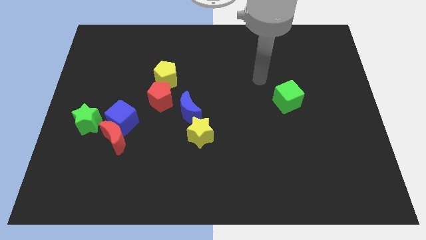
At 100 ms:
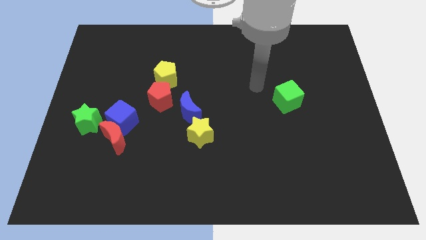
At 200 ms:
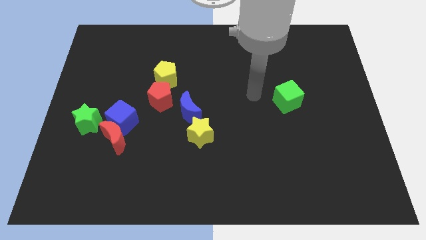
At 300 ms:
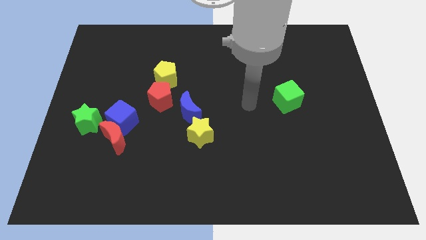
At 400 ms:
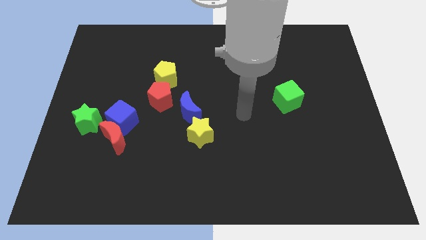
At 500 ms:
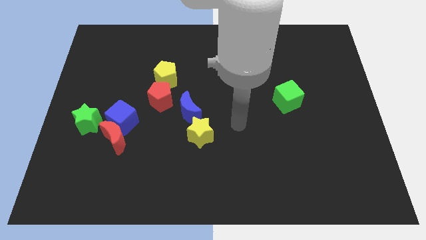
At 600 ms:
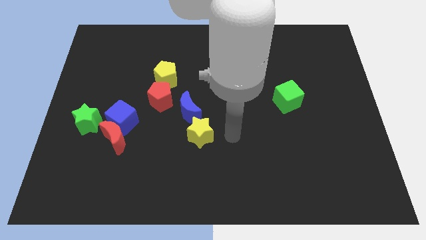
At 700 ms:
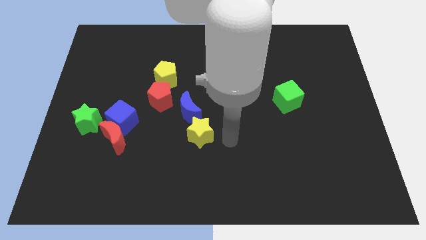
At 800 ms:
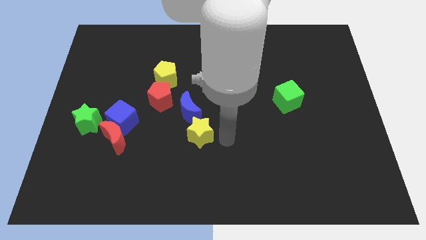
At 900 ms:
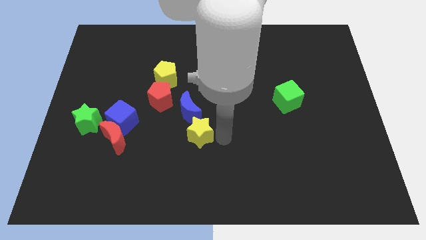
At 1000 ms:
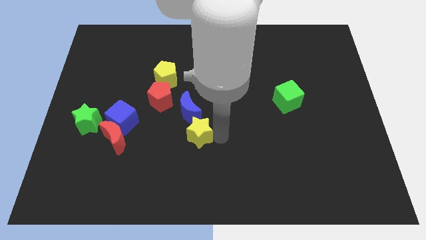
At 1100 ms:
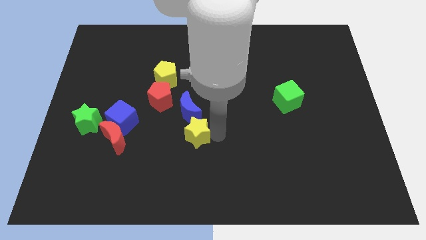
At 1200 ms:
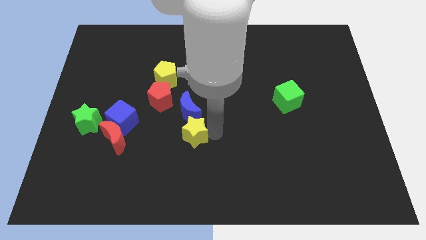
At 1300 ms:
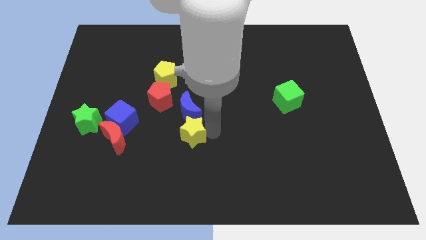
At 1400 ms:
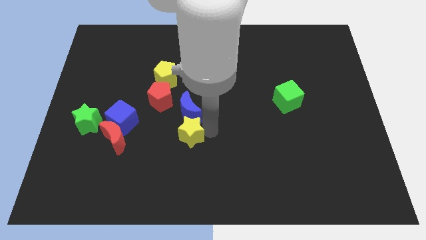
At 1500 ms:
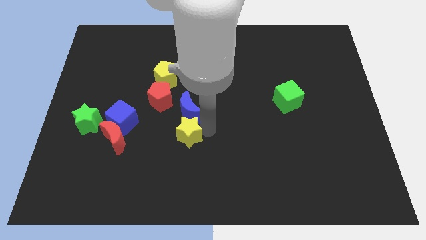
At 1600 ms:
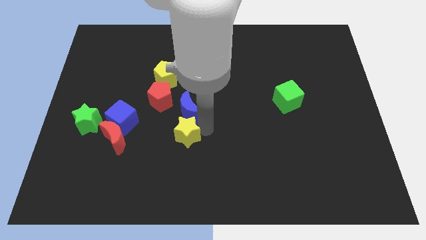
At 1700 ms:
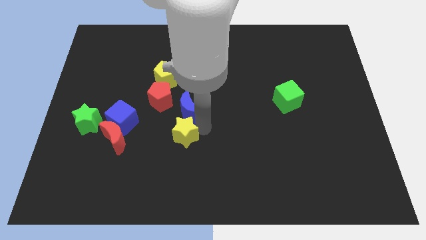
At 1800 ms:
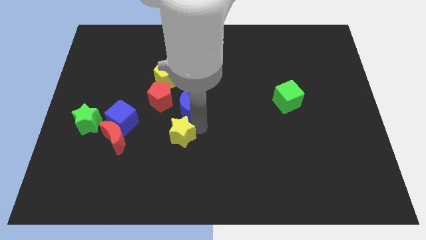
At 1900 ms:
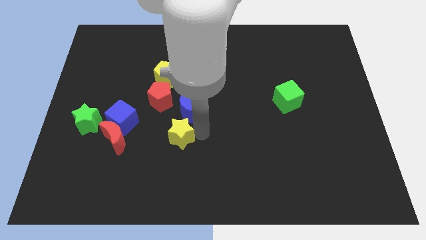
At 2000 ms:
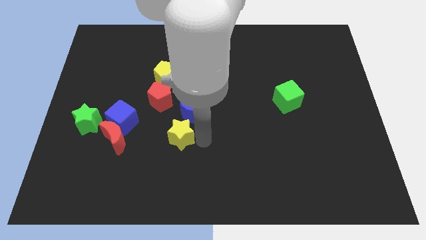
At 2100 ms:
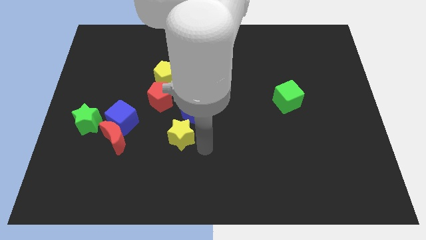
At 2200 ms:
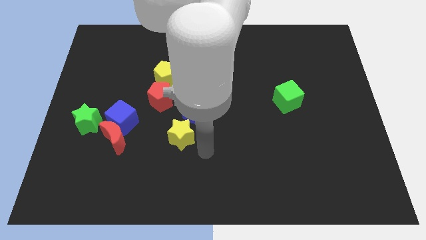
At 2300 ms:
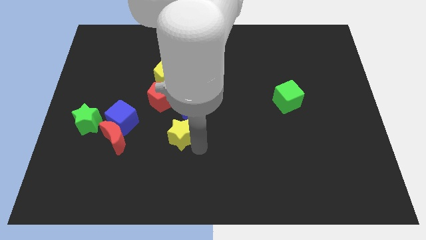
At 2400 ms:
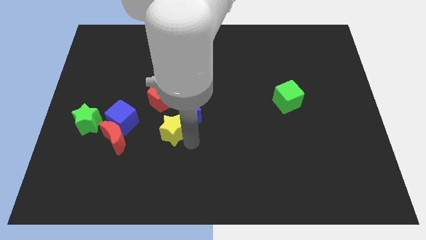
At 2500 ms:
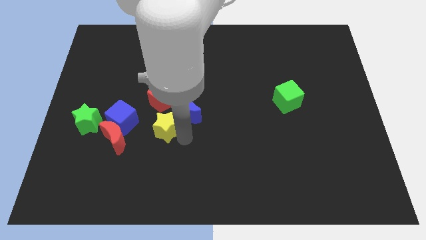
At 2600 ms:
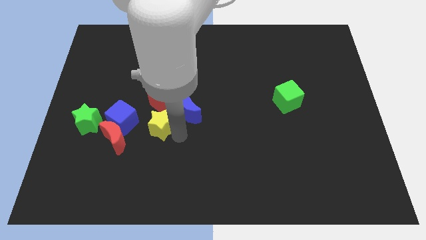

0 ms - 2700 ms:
slide the yellow star upwards and left a little bit

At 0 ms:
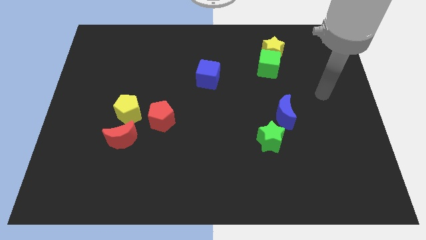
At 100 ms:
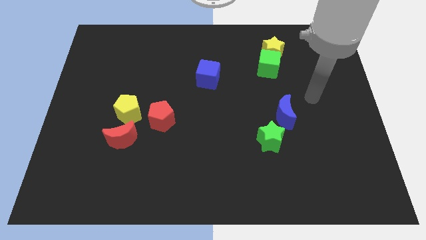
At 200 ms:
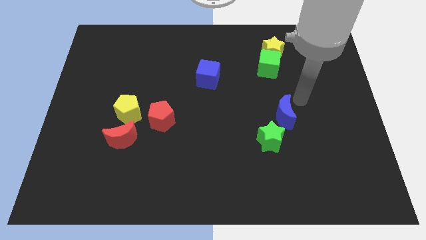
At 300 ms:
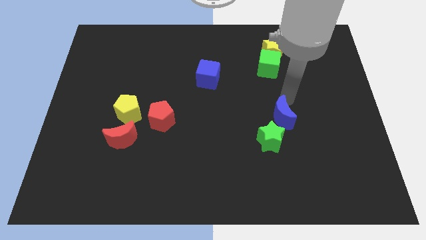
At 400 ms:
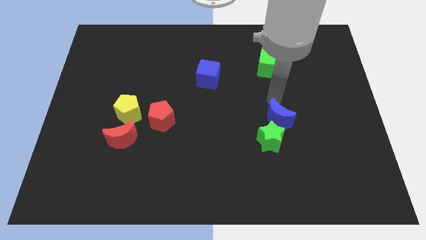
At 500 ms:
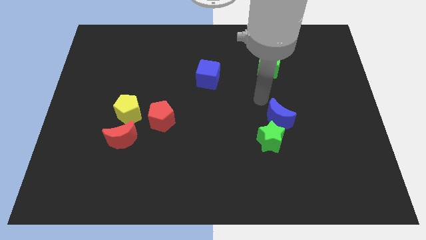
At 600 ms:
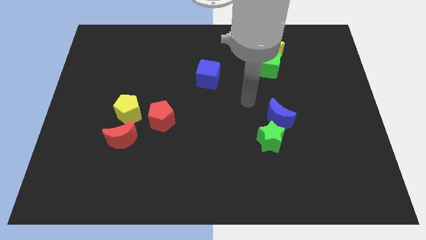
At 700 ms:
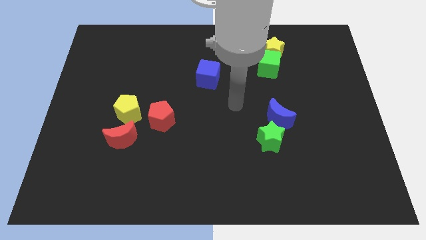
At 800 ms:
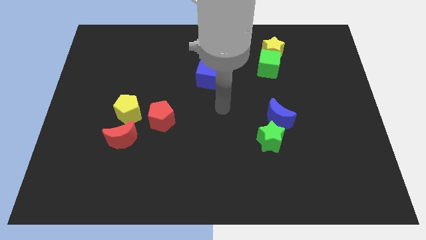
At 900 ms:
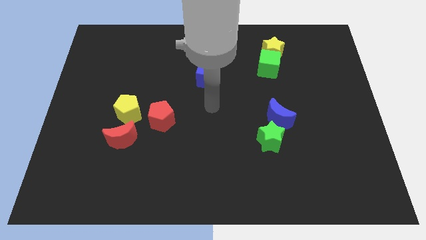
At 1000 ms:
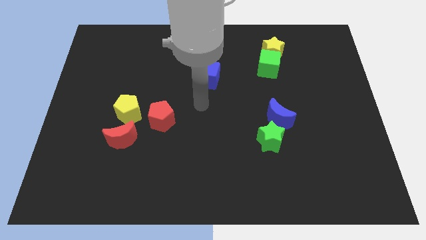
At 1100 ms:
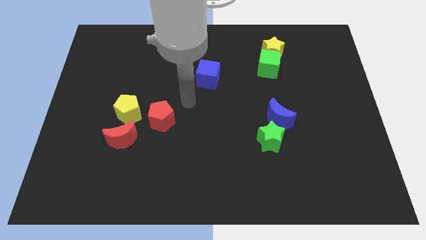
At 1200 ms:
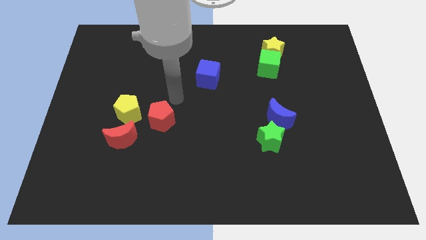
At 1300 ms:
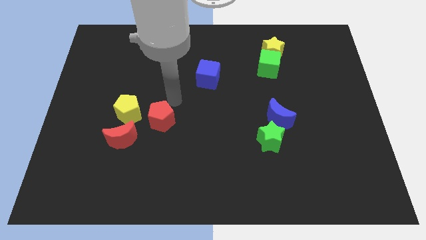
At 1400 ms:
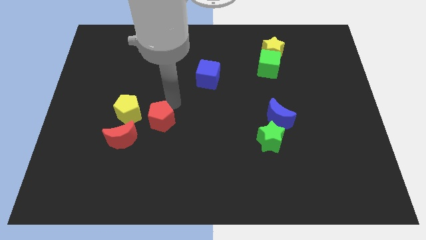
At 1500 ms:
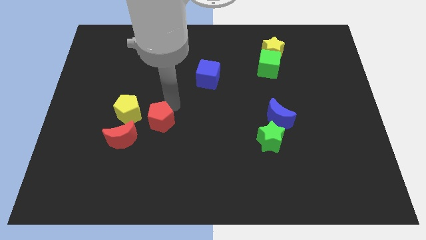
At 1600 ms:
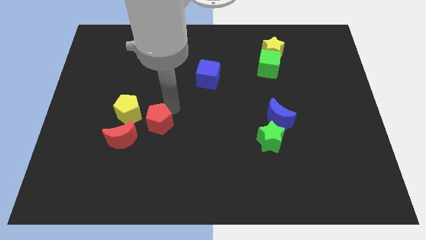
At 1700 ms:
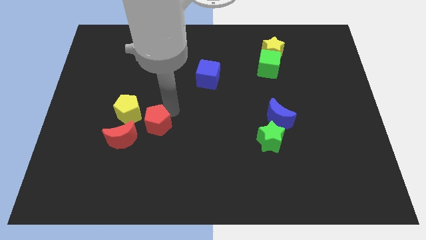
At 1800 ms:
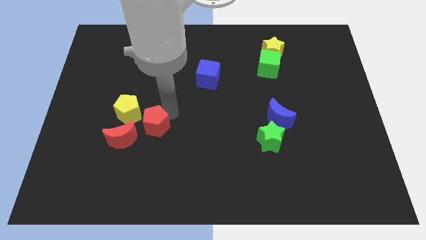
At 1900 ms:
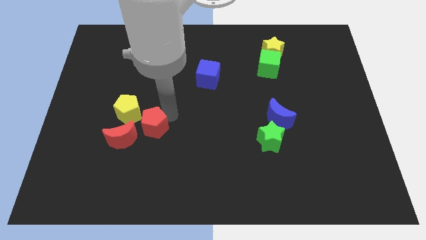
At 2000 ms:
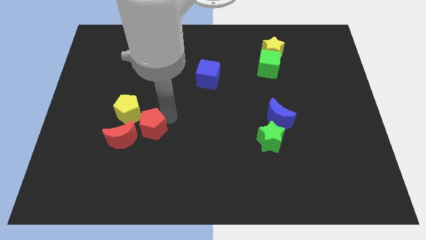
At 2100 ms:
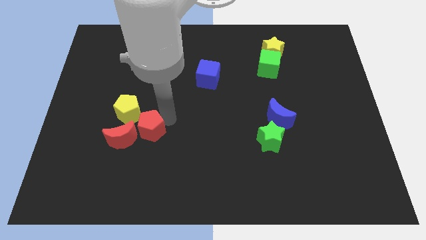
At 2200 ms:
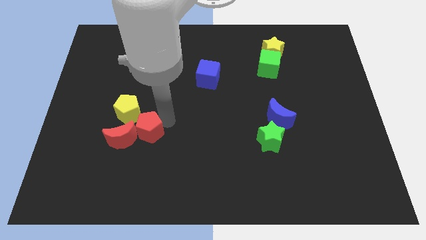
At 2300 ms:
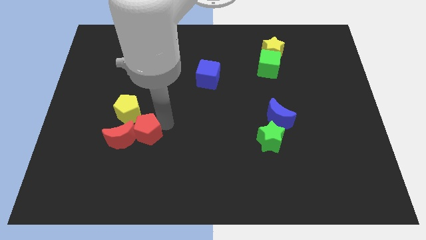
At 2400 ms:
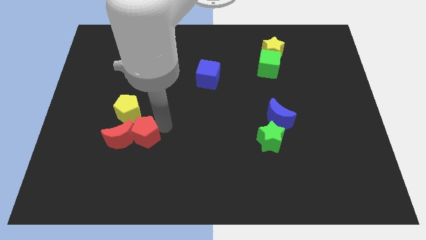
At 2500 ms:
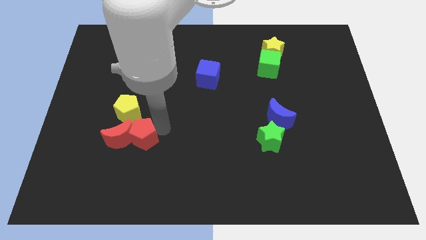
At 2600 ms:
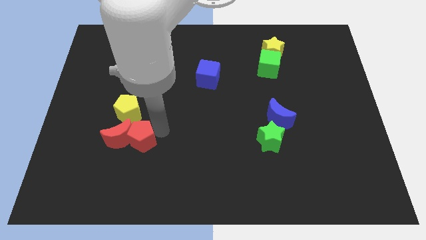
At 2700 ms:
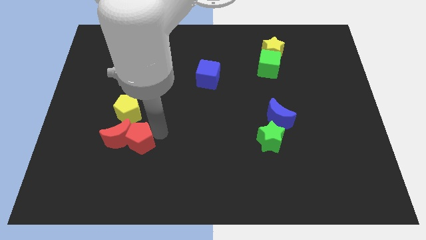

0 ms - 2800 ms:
slide the red pentagon down and left slightly

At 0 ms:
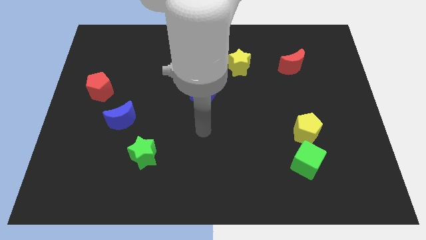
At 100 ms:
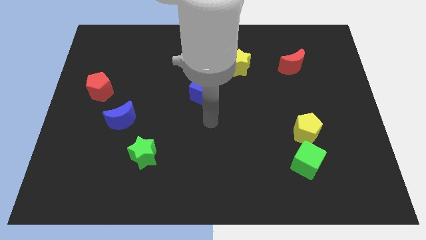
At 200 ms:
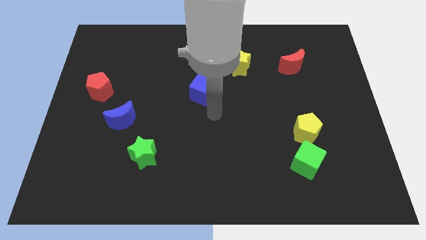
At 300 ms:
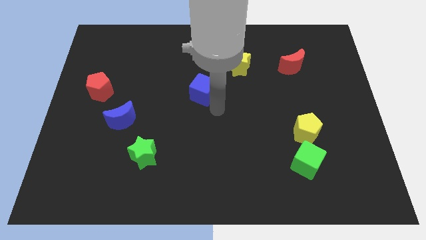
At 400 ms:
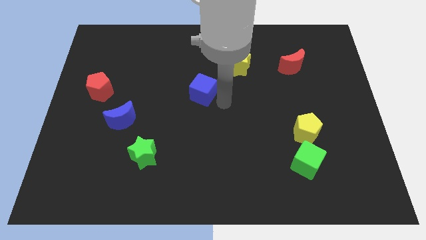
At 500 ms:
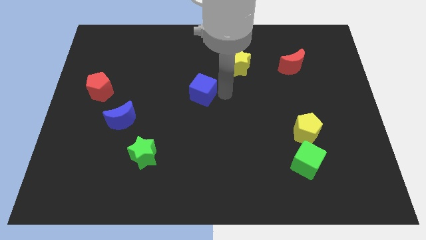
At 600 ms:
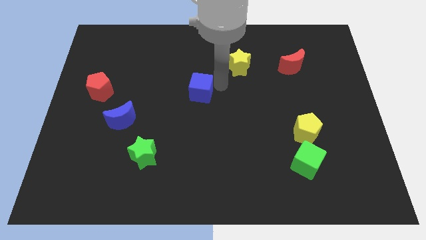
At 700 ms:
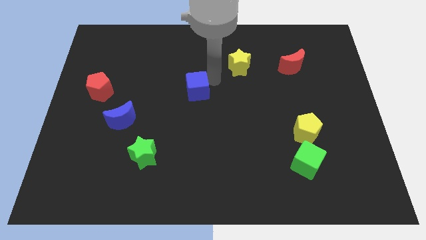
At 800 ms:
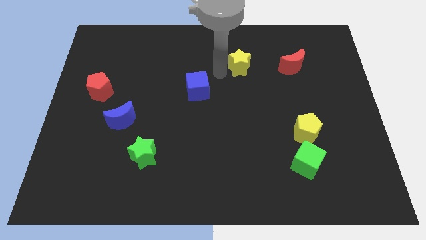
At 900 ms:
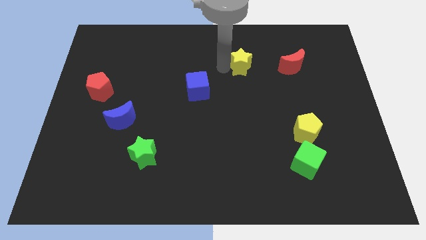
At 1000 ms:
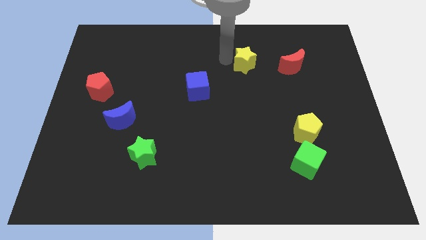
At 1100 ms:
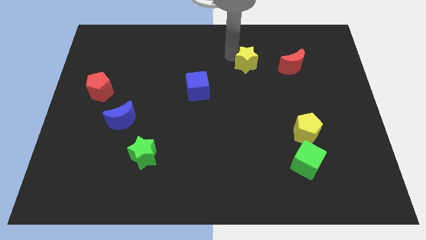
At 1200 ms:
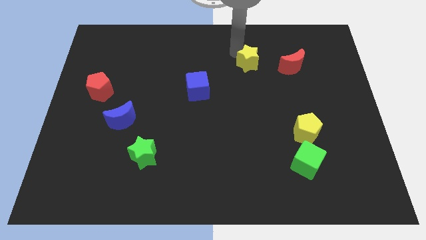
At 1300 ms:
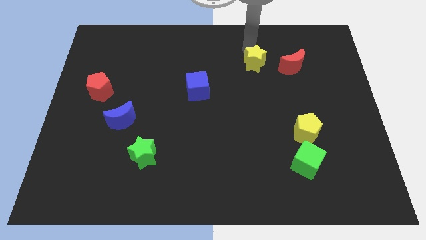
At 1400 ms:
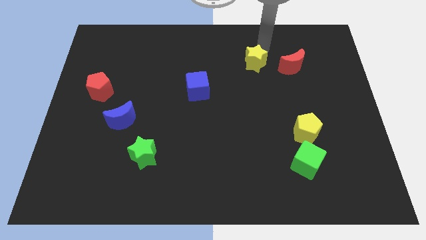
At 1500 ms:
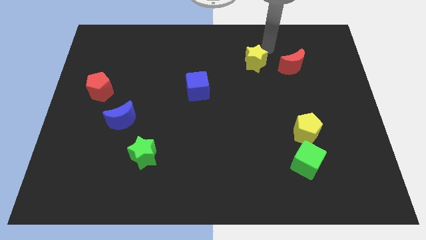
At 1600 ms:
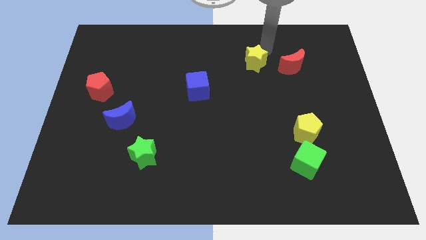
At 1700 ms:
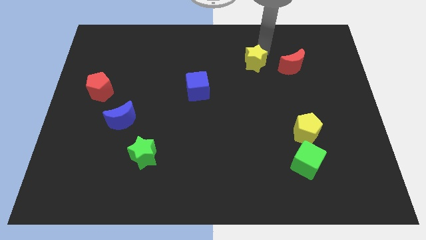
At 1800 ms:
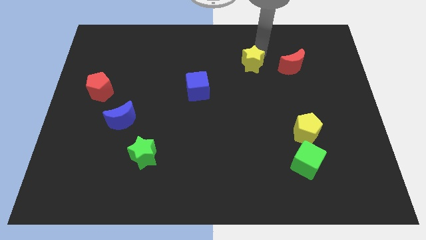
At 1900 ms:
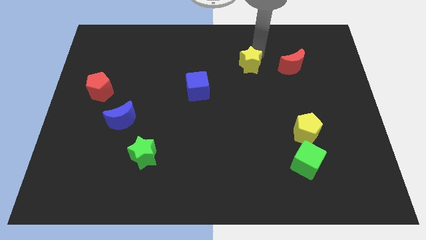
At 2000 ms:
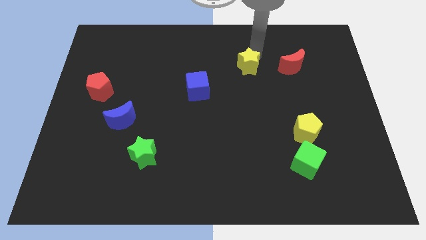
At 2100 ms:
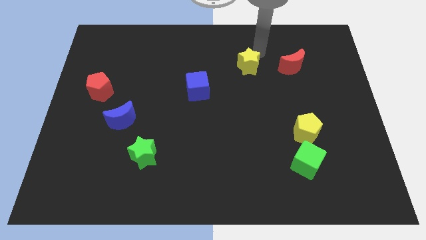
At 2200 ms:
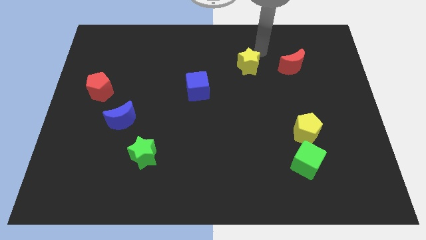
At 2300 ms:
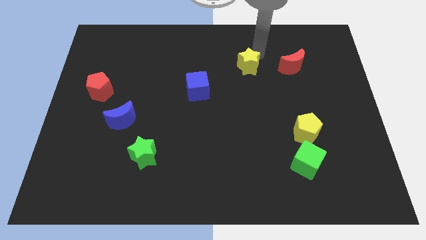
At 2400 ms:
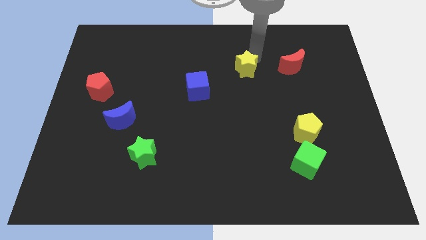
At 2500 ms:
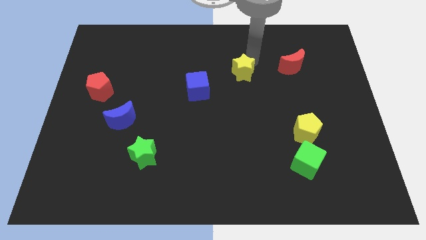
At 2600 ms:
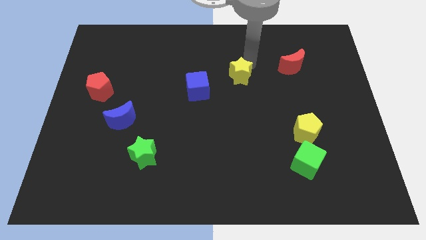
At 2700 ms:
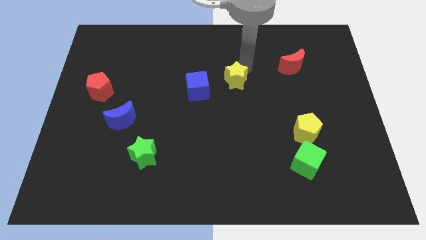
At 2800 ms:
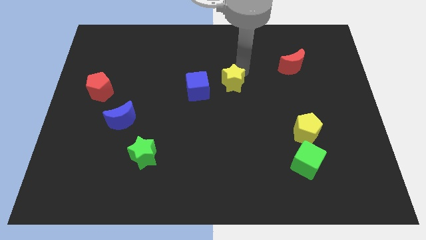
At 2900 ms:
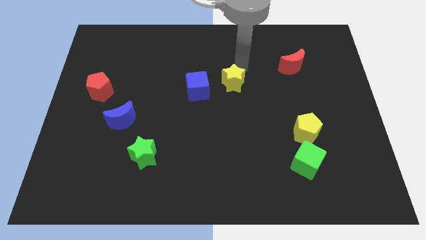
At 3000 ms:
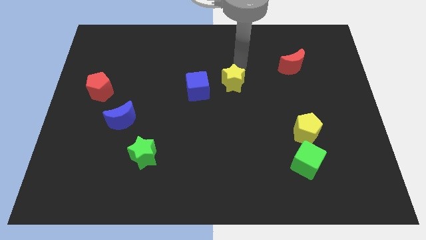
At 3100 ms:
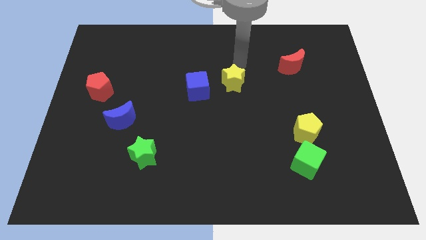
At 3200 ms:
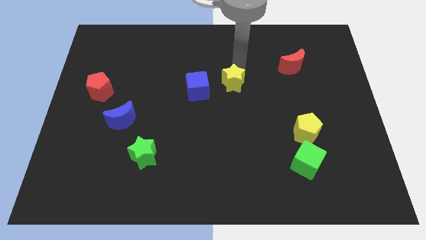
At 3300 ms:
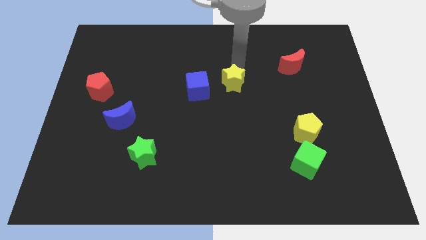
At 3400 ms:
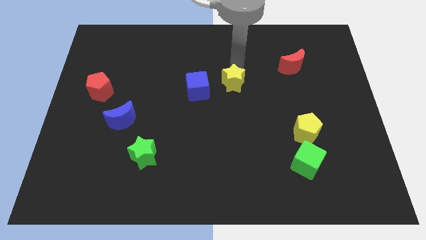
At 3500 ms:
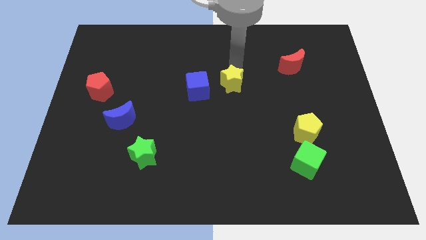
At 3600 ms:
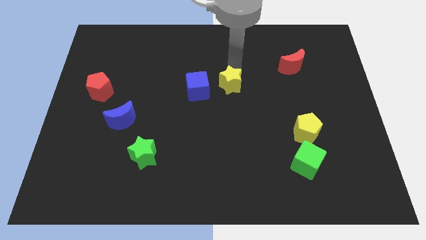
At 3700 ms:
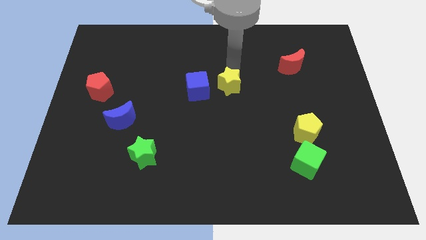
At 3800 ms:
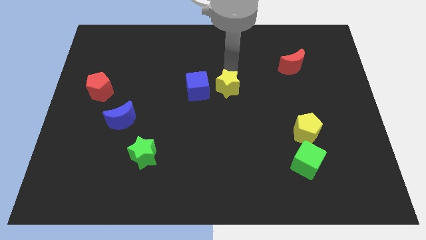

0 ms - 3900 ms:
move the yellow star diagonally down and left a bit
